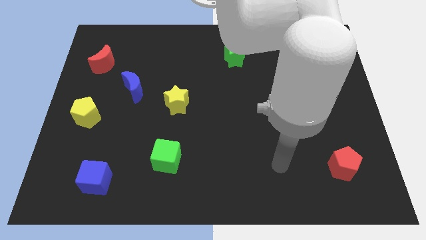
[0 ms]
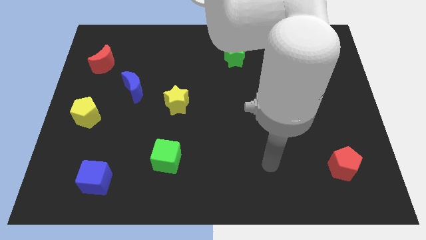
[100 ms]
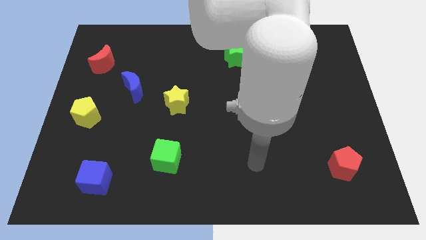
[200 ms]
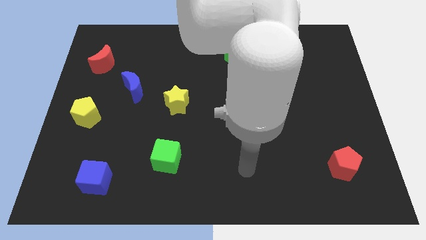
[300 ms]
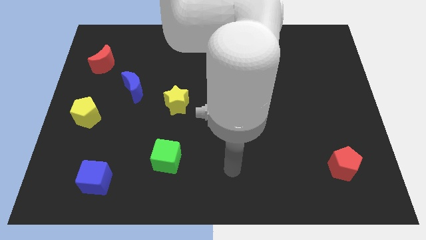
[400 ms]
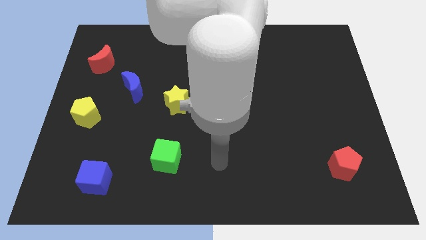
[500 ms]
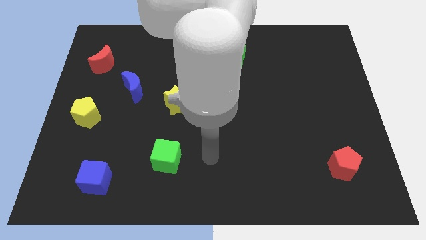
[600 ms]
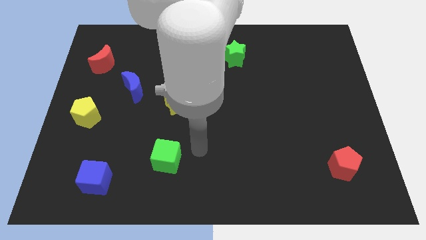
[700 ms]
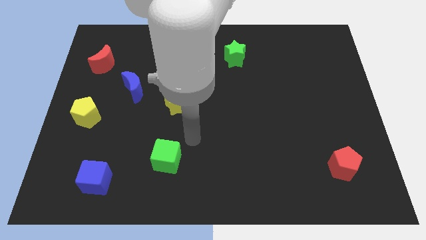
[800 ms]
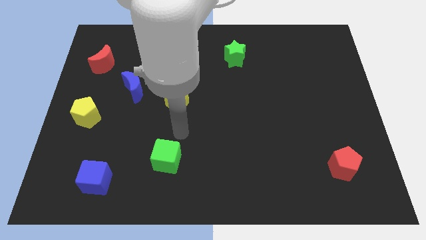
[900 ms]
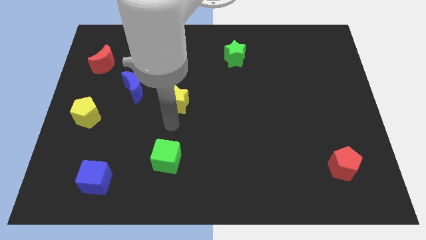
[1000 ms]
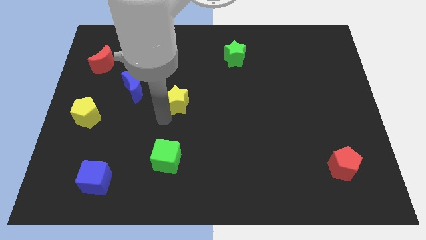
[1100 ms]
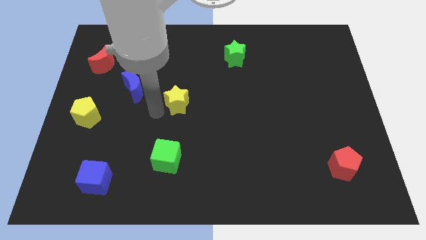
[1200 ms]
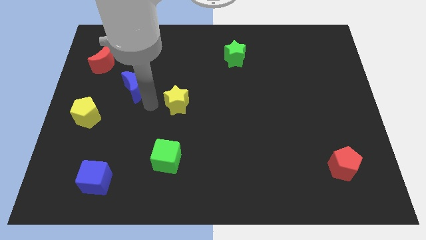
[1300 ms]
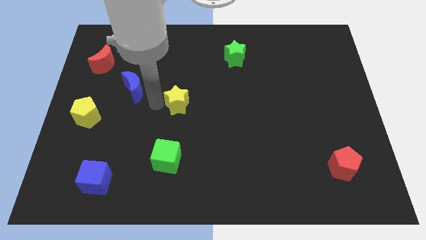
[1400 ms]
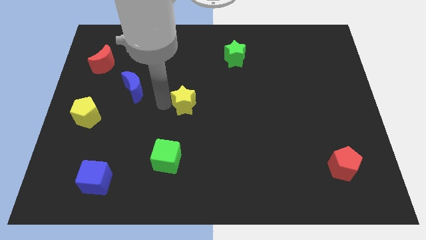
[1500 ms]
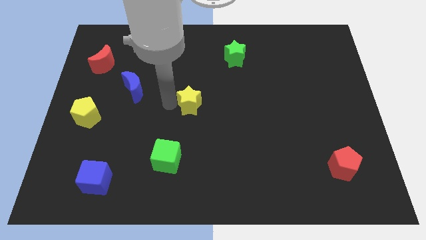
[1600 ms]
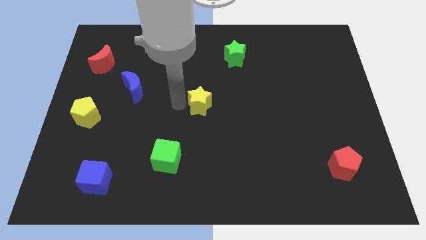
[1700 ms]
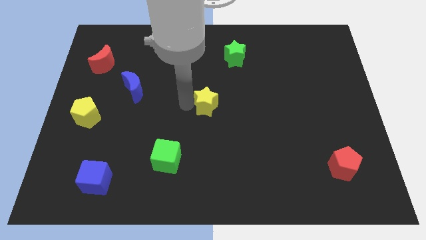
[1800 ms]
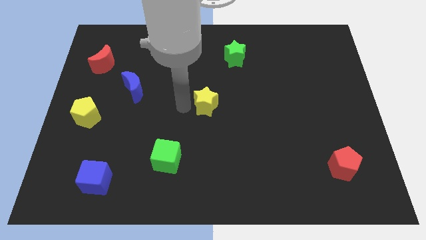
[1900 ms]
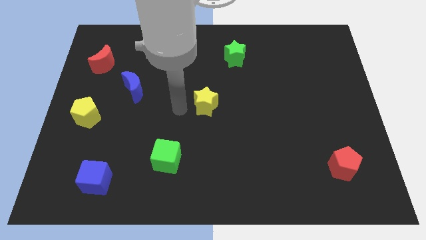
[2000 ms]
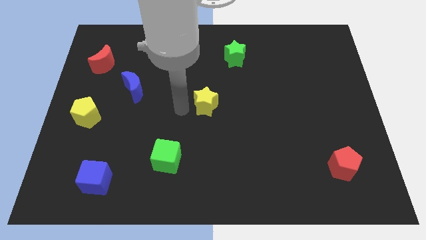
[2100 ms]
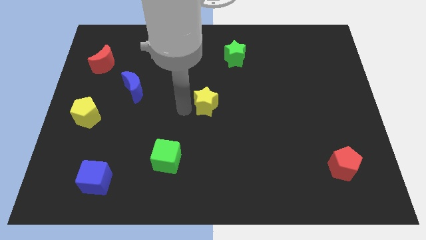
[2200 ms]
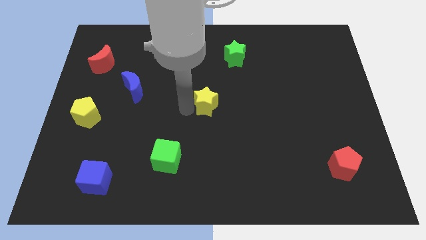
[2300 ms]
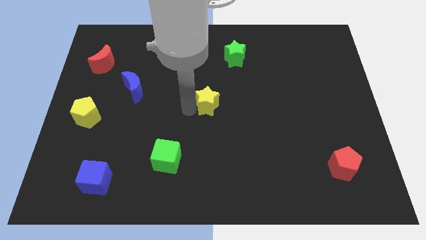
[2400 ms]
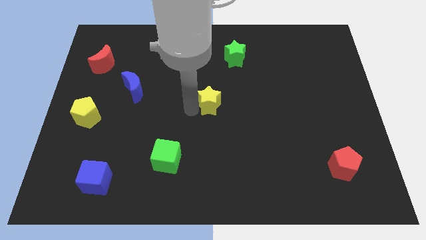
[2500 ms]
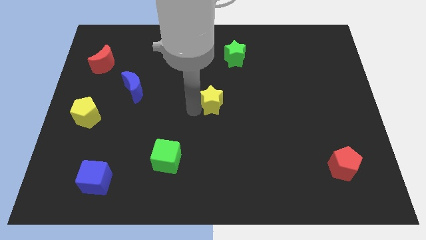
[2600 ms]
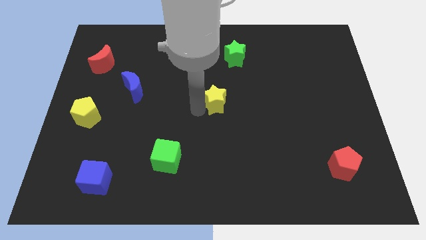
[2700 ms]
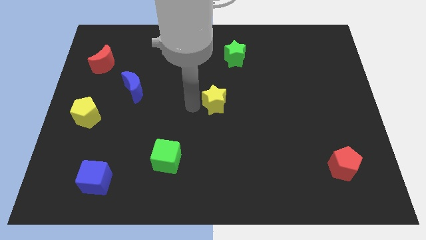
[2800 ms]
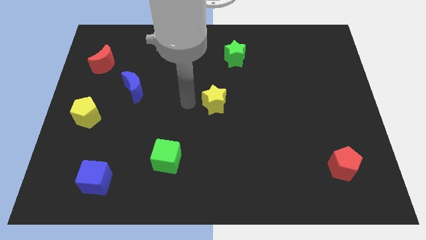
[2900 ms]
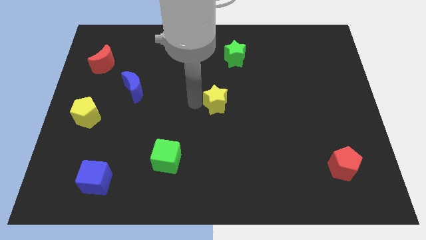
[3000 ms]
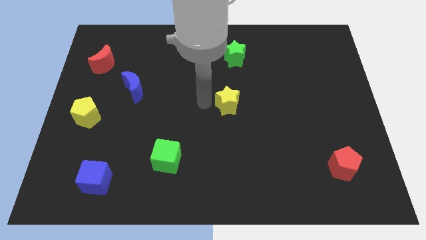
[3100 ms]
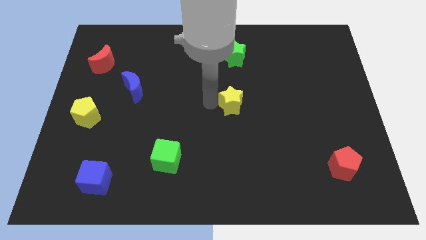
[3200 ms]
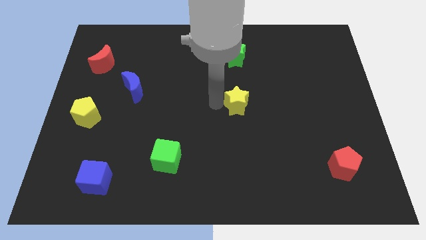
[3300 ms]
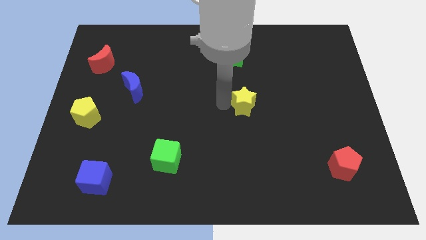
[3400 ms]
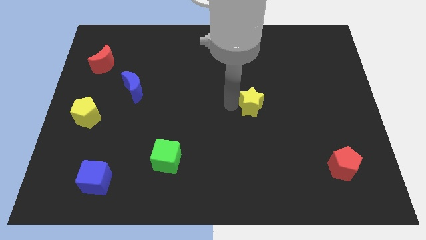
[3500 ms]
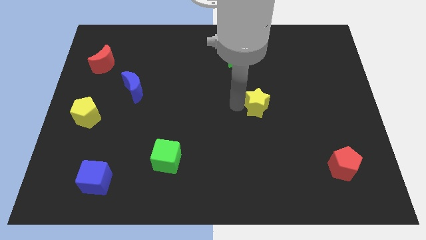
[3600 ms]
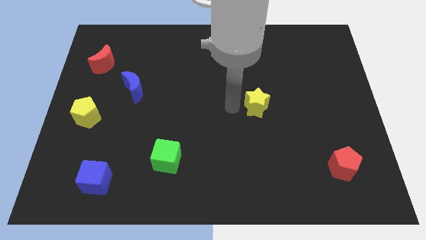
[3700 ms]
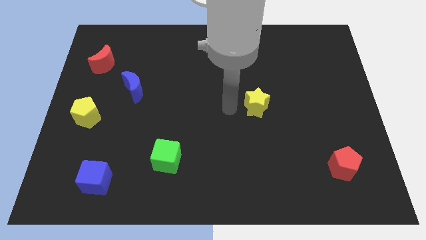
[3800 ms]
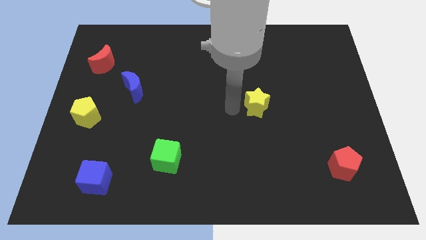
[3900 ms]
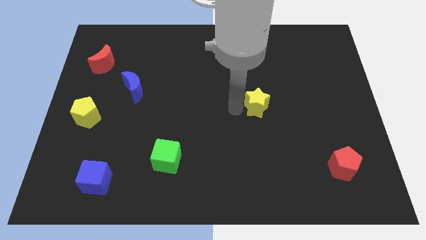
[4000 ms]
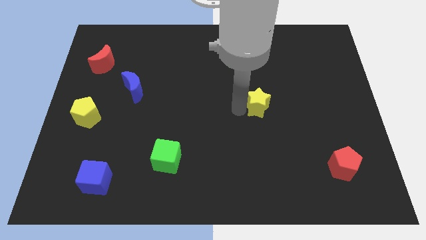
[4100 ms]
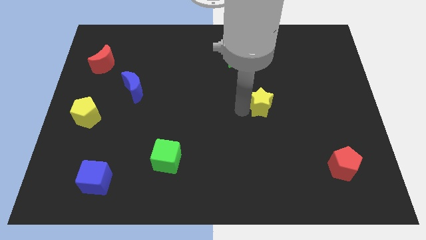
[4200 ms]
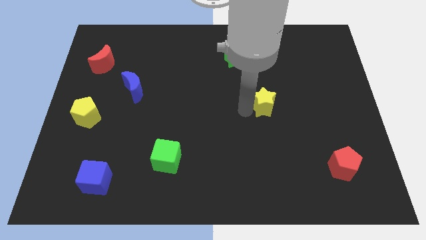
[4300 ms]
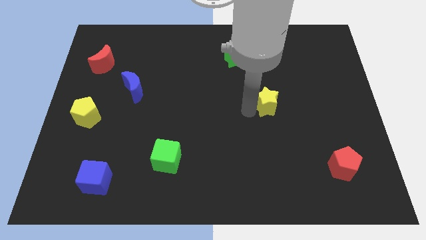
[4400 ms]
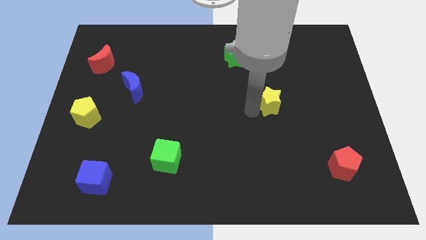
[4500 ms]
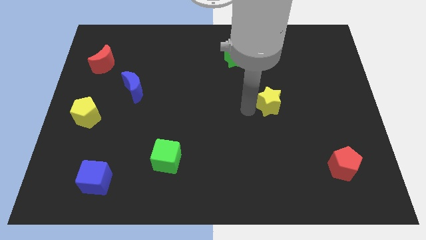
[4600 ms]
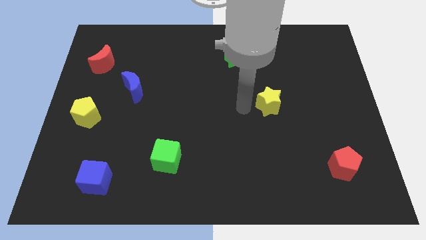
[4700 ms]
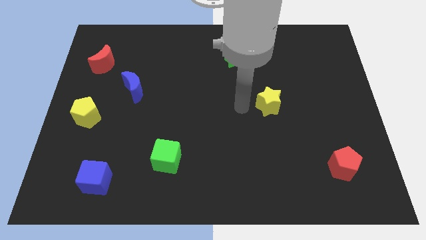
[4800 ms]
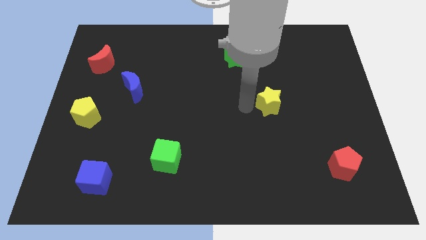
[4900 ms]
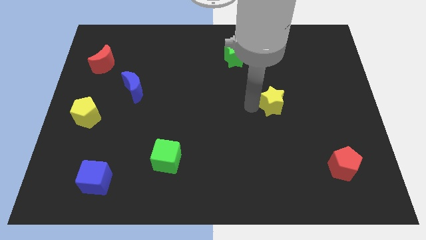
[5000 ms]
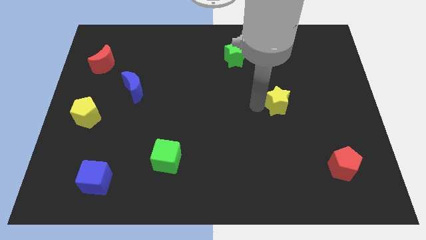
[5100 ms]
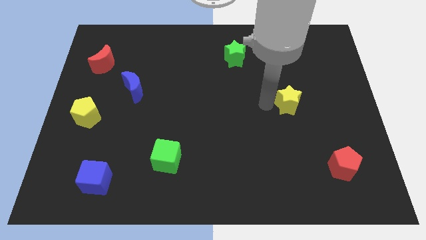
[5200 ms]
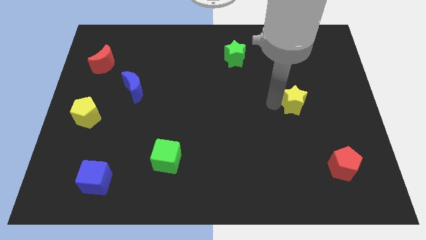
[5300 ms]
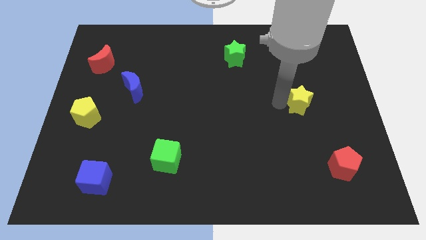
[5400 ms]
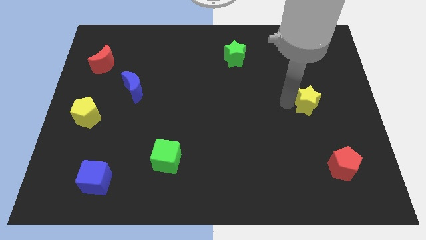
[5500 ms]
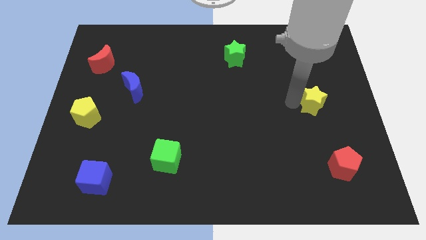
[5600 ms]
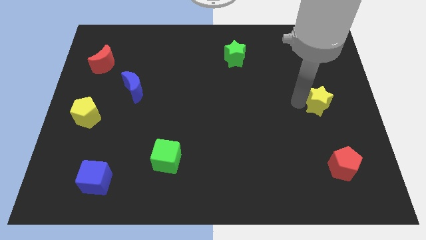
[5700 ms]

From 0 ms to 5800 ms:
put the yellow star to the right side of the board
